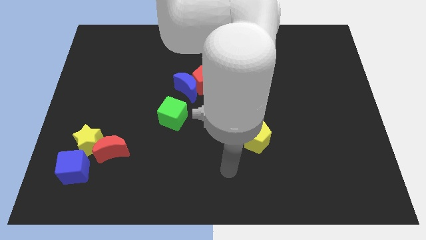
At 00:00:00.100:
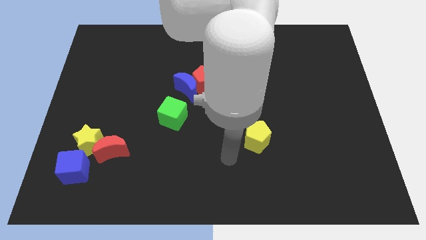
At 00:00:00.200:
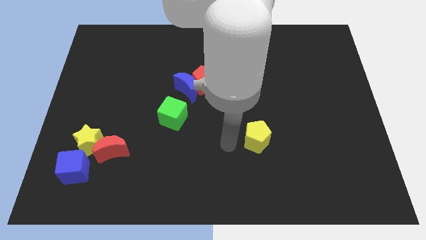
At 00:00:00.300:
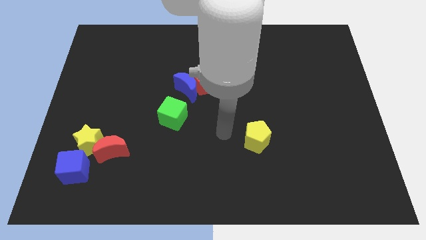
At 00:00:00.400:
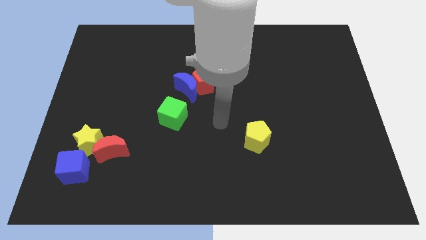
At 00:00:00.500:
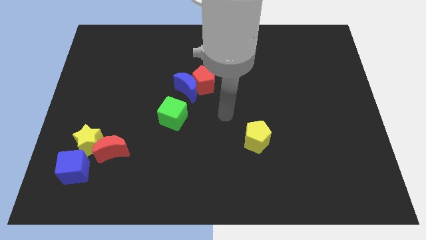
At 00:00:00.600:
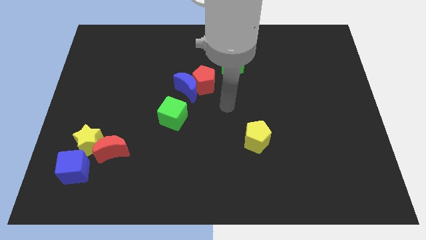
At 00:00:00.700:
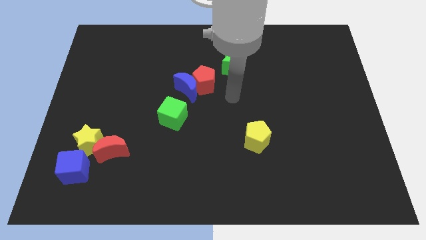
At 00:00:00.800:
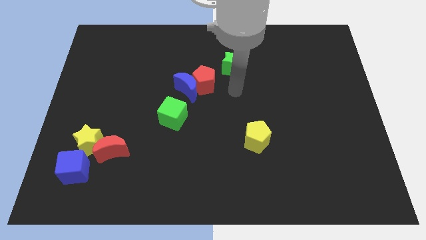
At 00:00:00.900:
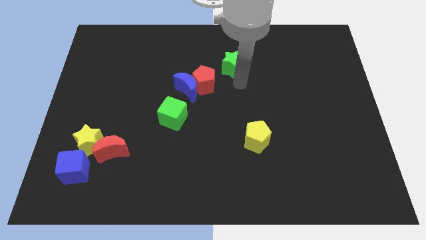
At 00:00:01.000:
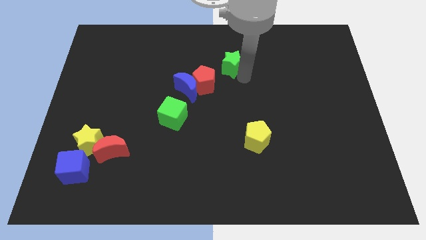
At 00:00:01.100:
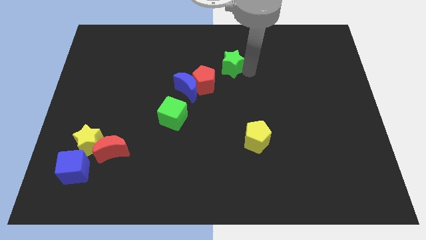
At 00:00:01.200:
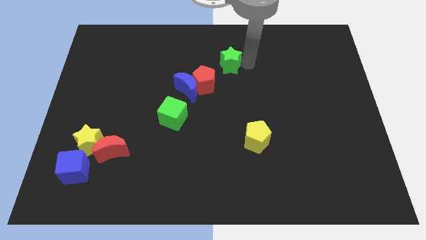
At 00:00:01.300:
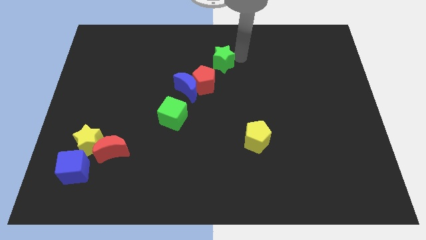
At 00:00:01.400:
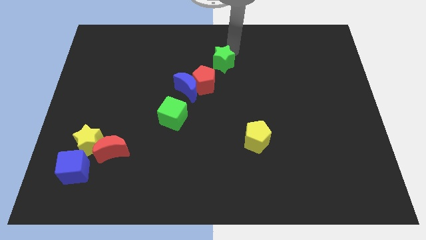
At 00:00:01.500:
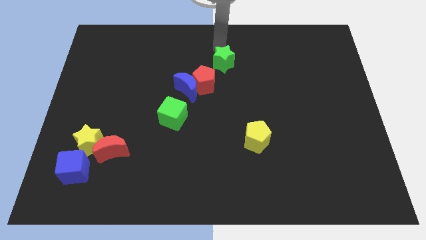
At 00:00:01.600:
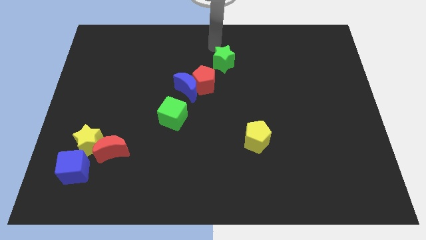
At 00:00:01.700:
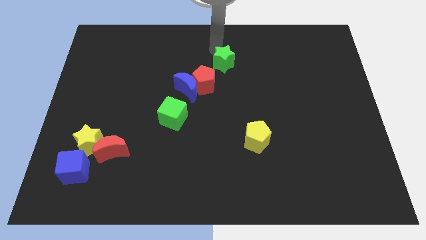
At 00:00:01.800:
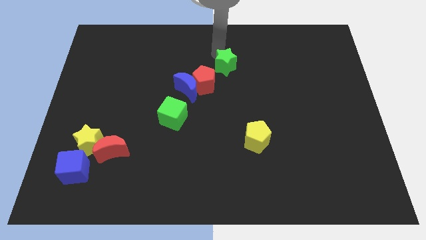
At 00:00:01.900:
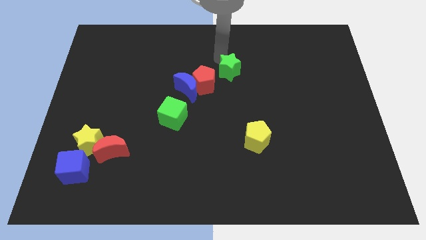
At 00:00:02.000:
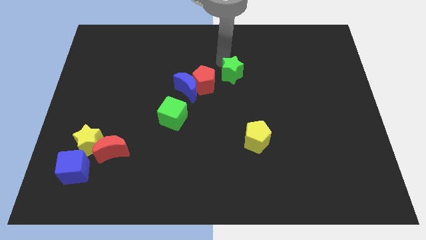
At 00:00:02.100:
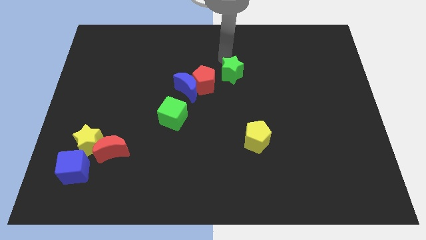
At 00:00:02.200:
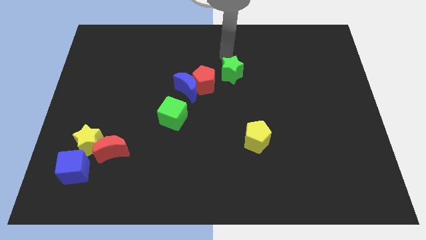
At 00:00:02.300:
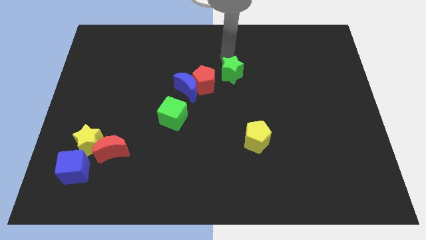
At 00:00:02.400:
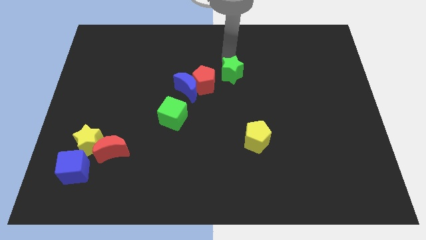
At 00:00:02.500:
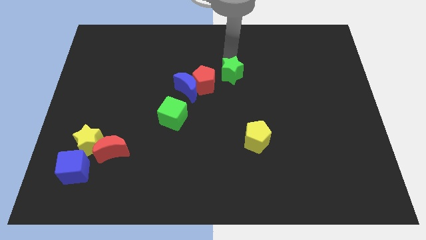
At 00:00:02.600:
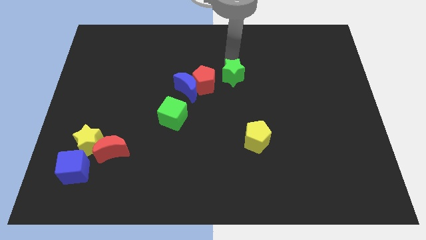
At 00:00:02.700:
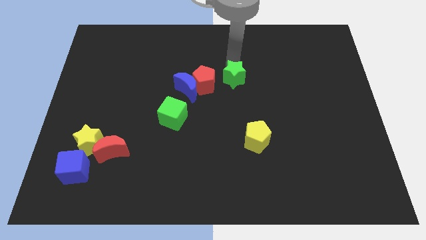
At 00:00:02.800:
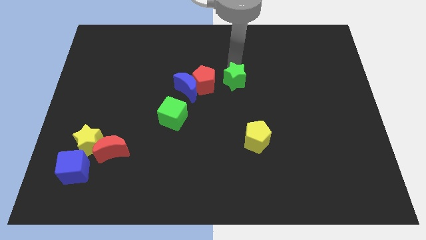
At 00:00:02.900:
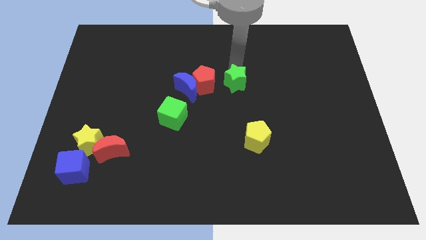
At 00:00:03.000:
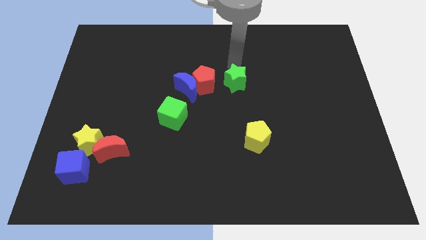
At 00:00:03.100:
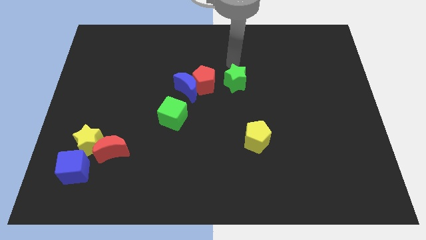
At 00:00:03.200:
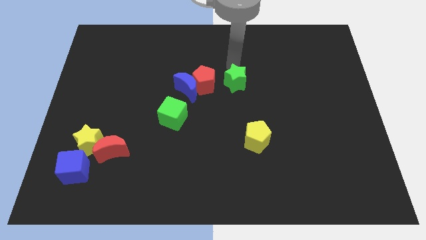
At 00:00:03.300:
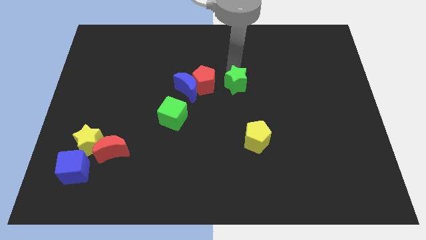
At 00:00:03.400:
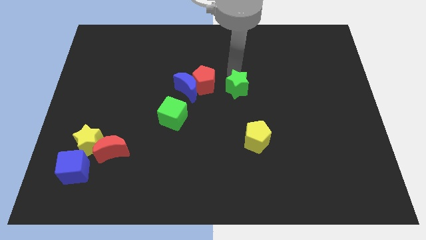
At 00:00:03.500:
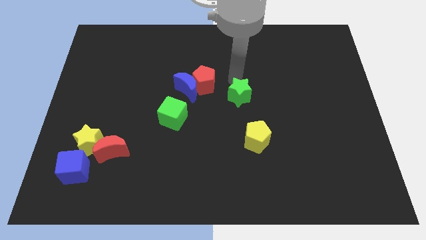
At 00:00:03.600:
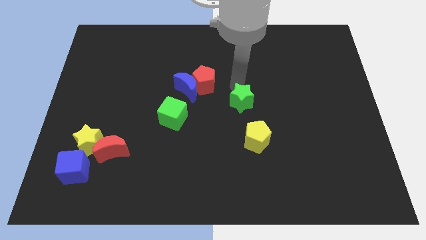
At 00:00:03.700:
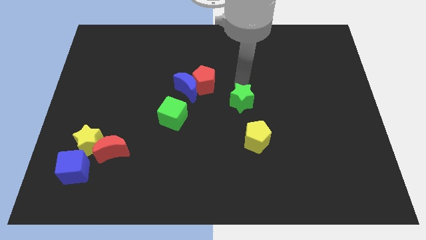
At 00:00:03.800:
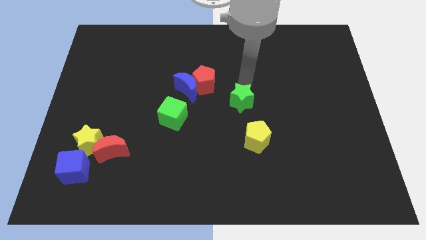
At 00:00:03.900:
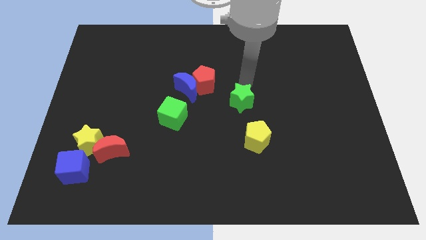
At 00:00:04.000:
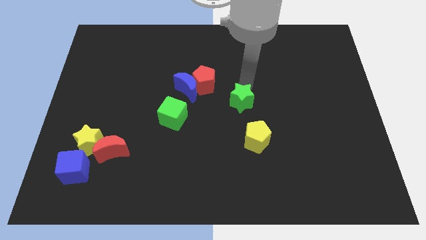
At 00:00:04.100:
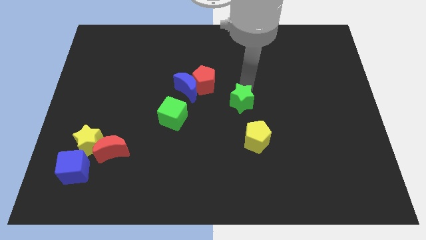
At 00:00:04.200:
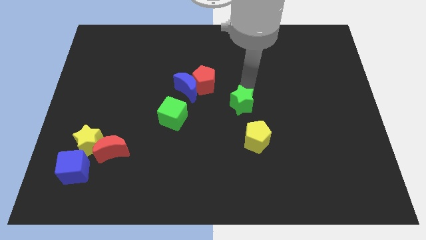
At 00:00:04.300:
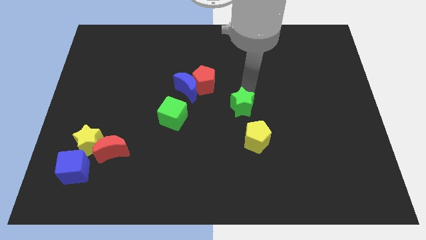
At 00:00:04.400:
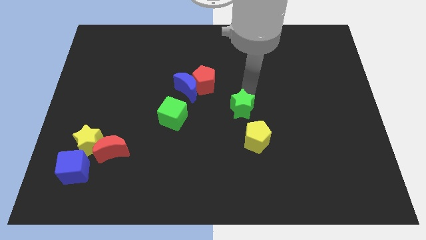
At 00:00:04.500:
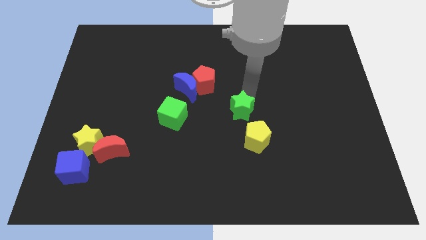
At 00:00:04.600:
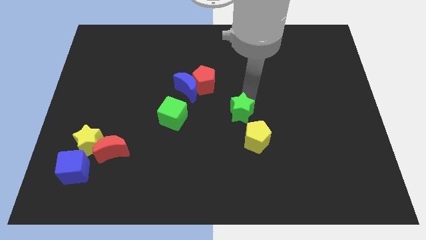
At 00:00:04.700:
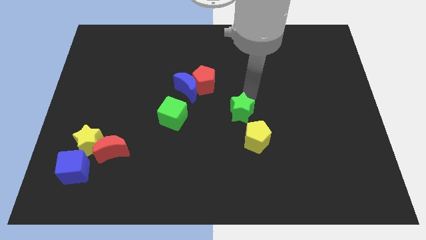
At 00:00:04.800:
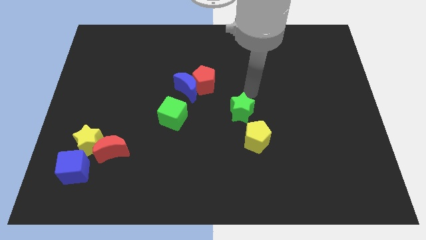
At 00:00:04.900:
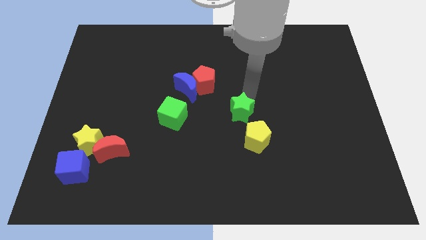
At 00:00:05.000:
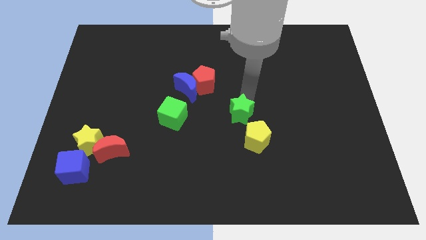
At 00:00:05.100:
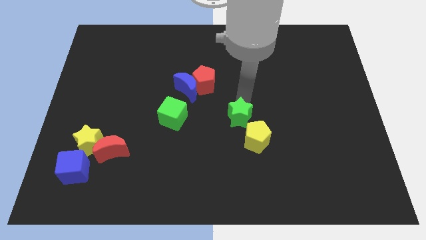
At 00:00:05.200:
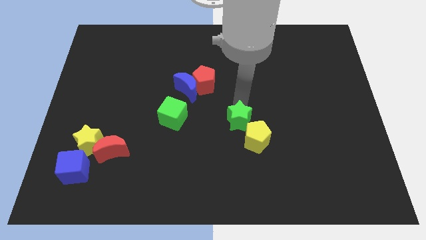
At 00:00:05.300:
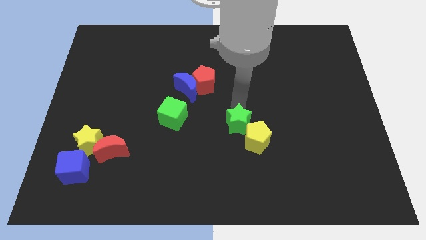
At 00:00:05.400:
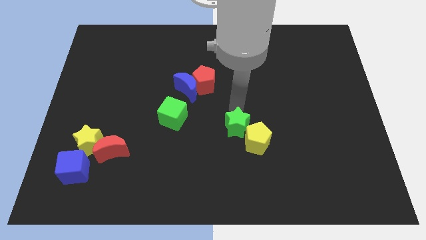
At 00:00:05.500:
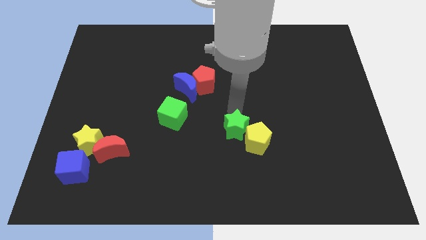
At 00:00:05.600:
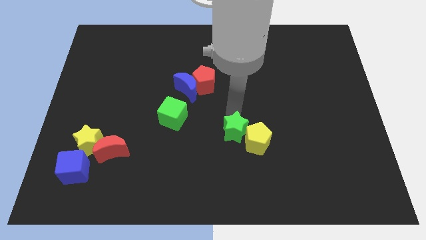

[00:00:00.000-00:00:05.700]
slide the green star downwards

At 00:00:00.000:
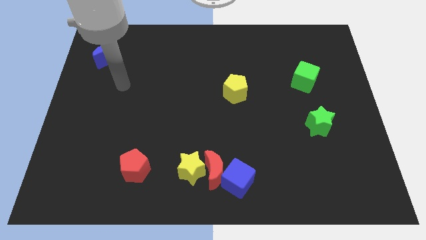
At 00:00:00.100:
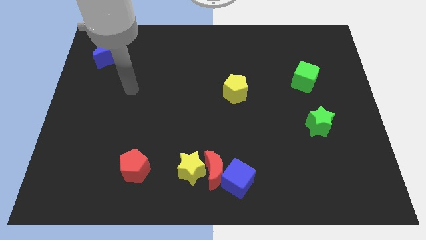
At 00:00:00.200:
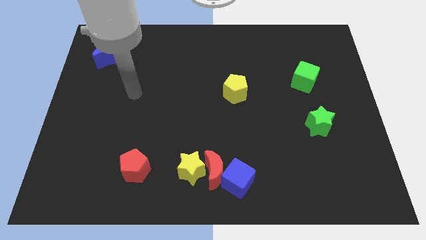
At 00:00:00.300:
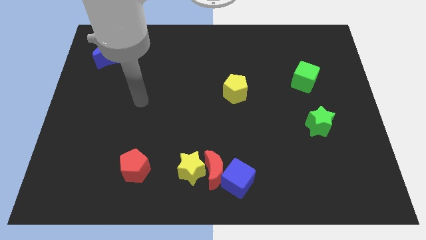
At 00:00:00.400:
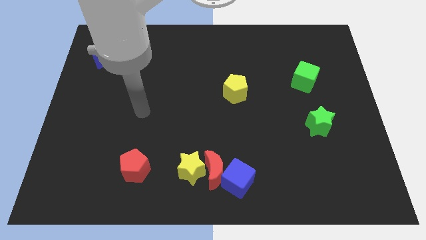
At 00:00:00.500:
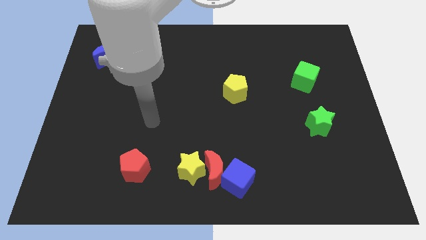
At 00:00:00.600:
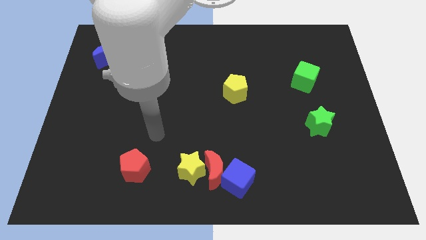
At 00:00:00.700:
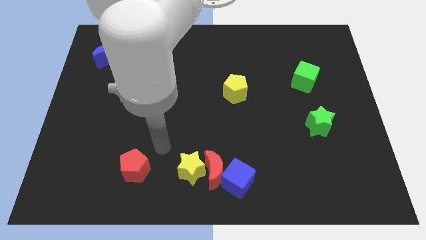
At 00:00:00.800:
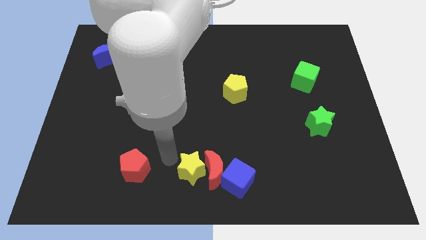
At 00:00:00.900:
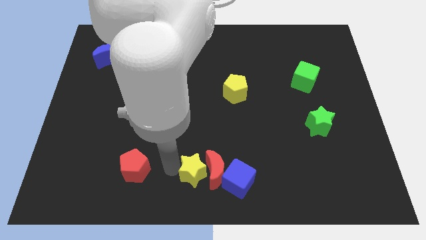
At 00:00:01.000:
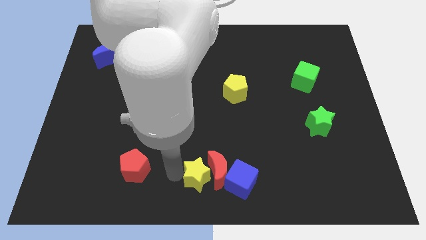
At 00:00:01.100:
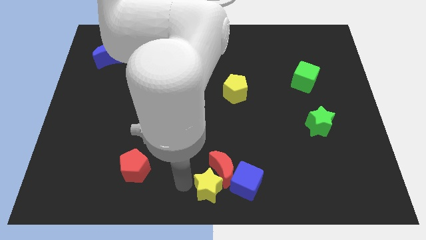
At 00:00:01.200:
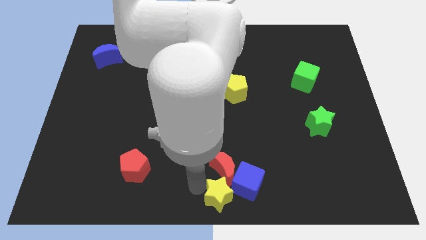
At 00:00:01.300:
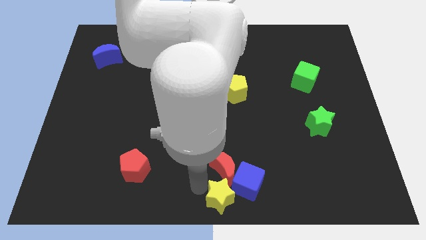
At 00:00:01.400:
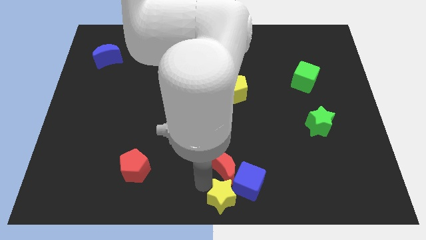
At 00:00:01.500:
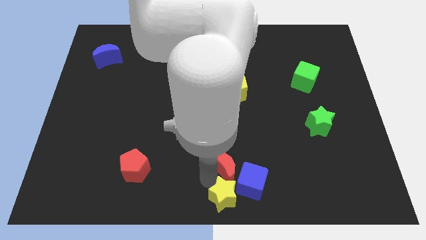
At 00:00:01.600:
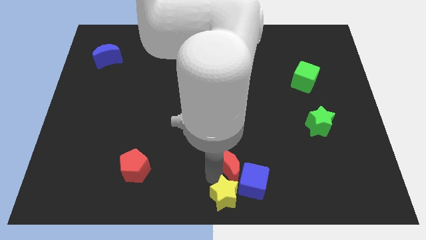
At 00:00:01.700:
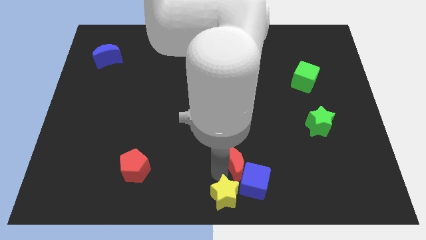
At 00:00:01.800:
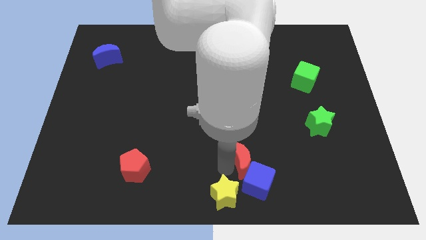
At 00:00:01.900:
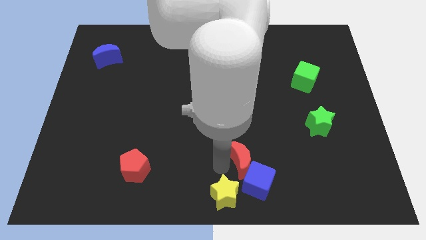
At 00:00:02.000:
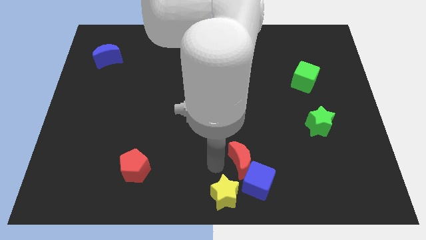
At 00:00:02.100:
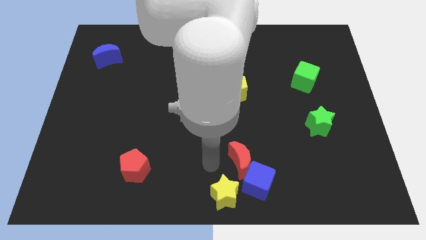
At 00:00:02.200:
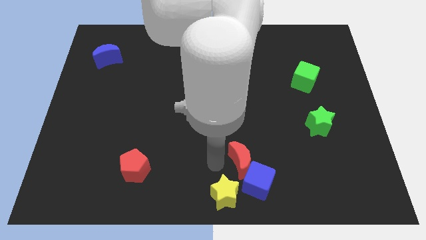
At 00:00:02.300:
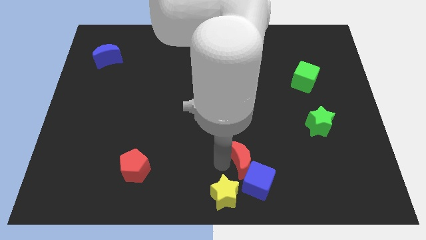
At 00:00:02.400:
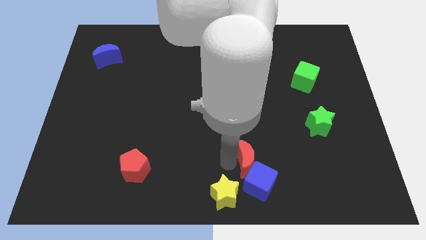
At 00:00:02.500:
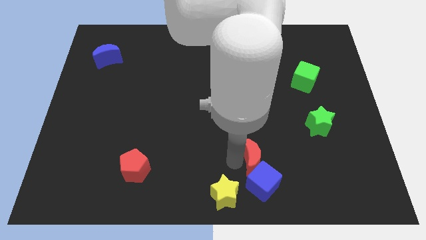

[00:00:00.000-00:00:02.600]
push the red moon right a little
